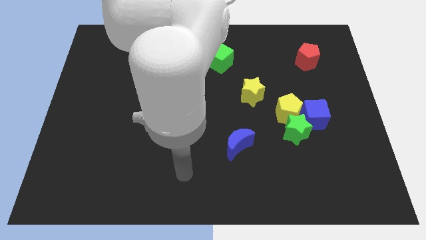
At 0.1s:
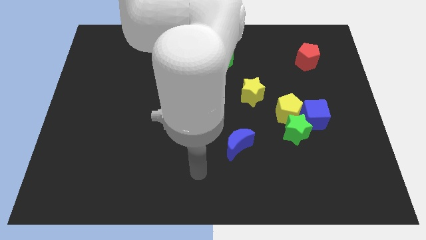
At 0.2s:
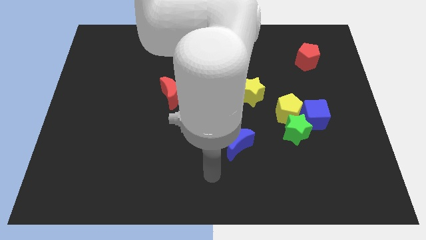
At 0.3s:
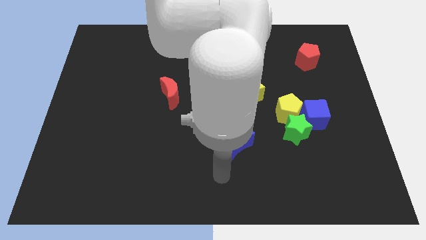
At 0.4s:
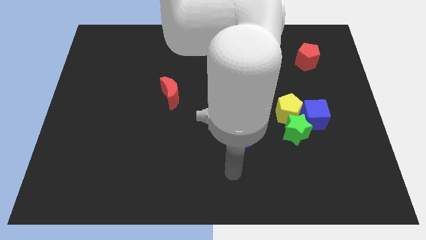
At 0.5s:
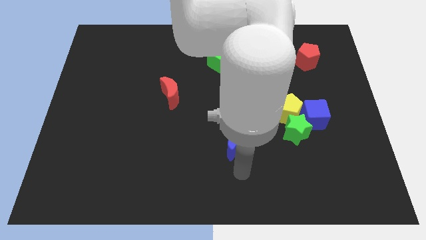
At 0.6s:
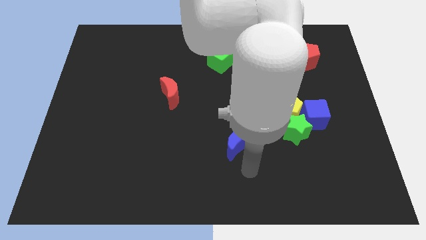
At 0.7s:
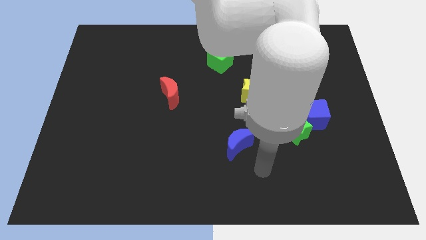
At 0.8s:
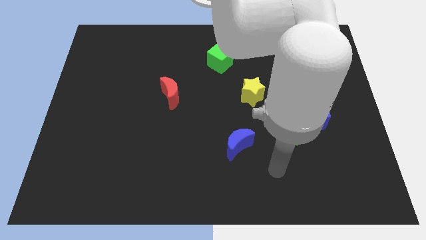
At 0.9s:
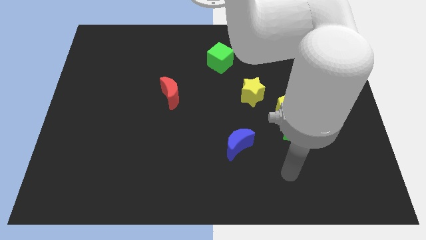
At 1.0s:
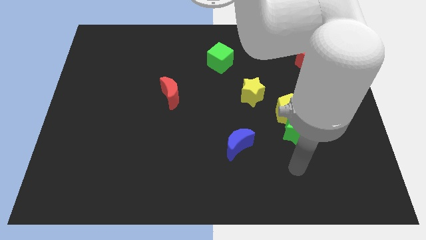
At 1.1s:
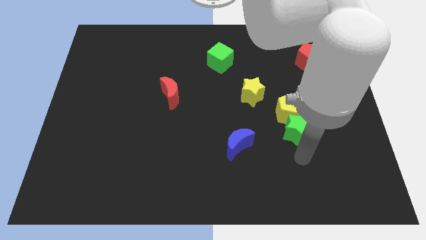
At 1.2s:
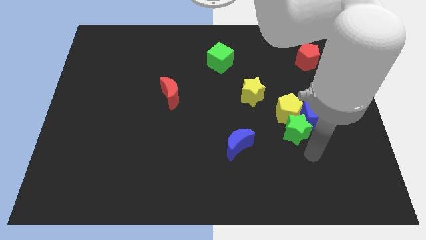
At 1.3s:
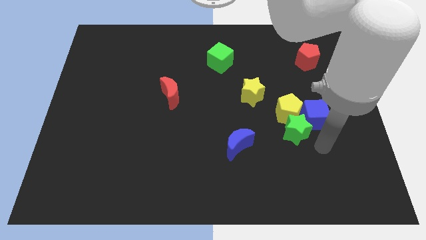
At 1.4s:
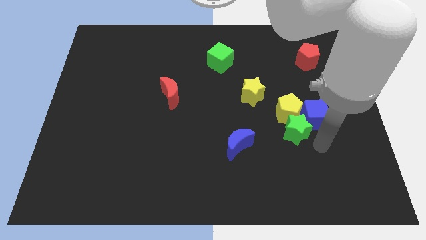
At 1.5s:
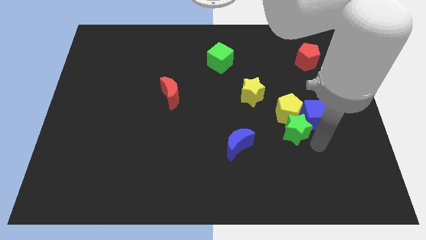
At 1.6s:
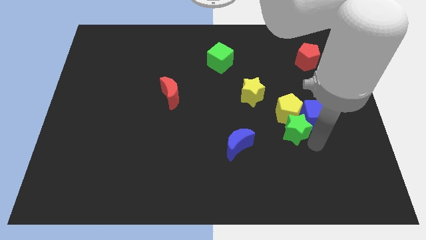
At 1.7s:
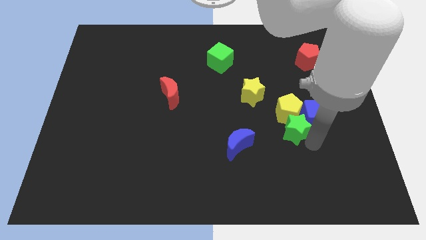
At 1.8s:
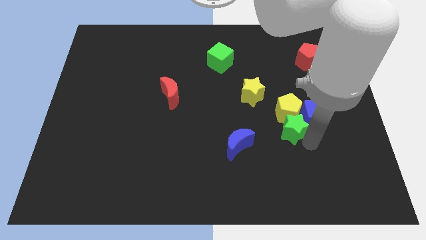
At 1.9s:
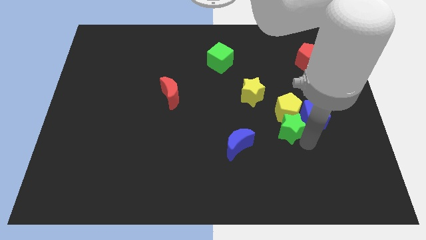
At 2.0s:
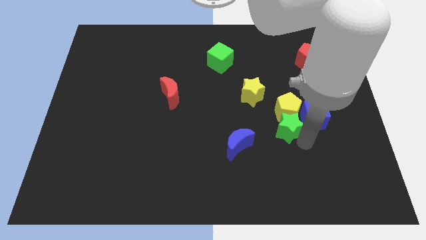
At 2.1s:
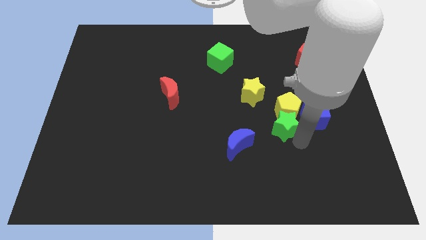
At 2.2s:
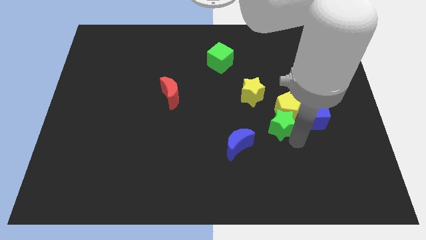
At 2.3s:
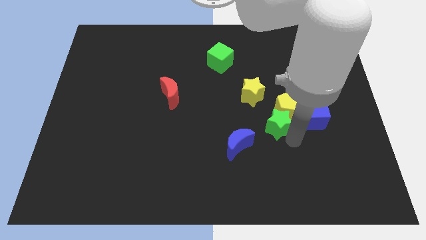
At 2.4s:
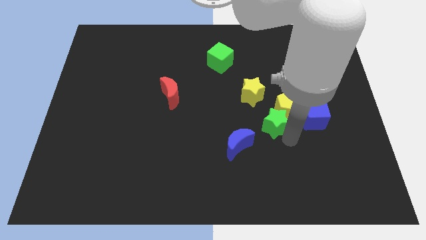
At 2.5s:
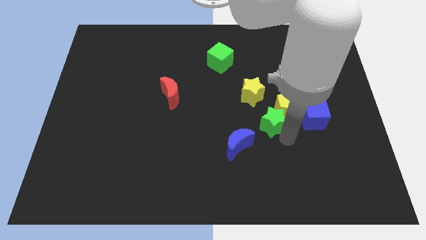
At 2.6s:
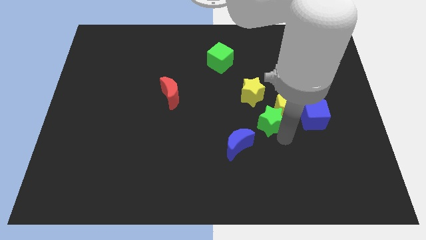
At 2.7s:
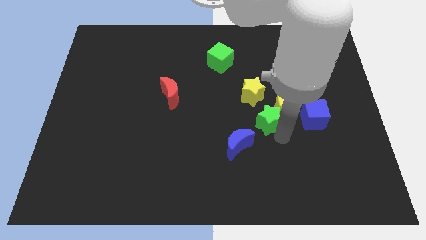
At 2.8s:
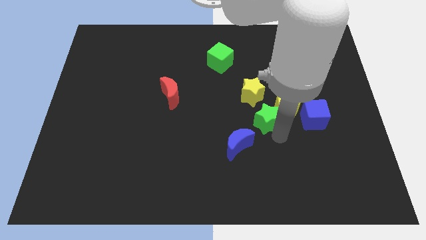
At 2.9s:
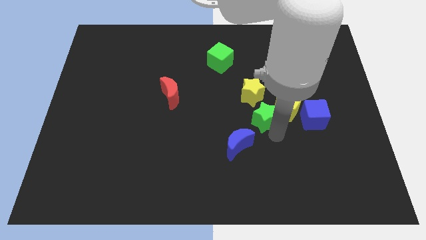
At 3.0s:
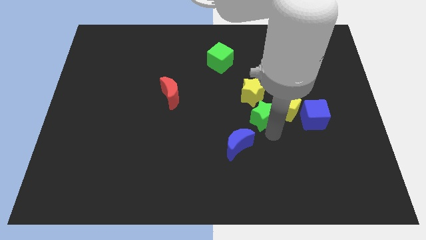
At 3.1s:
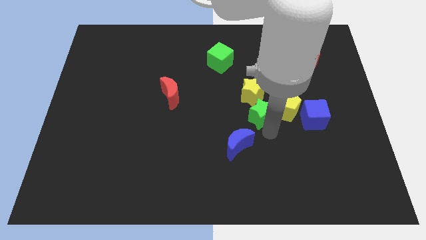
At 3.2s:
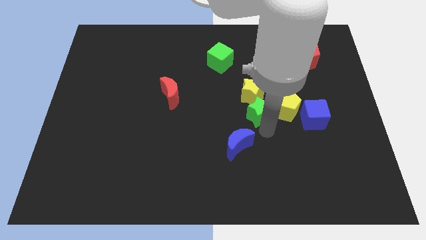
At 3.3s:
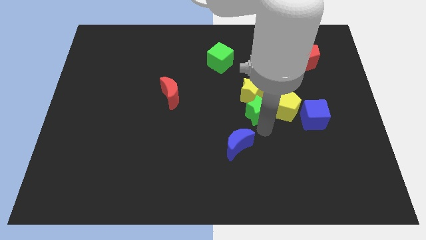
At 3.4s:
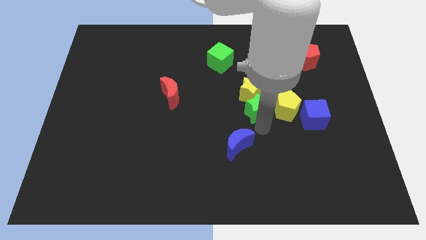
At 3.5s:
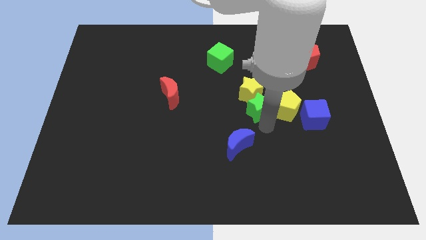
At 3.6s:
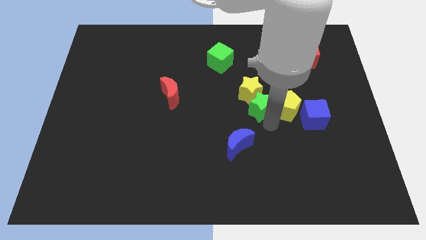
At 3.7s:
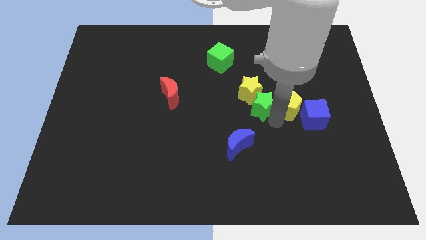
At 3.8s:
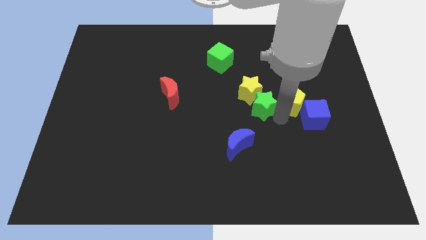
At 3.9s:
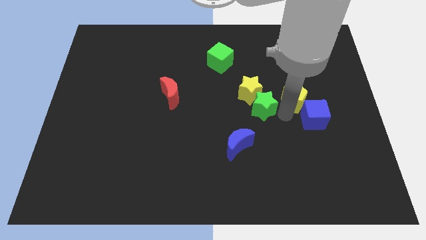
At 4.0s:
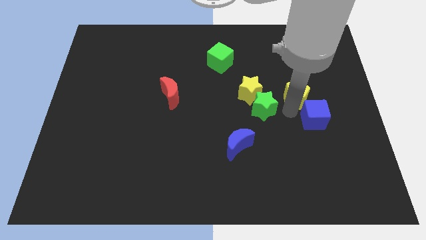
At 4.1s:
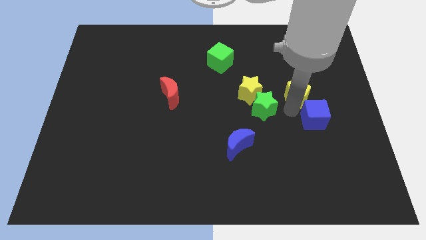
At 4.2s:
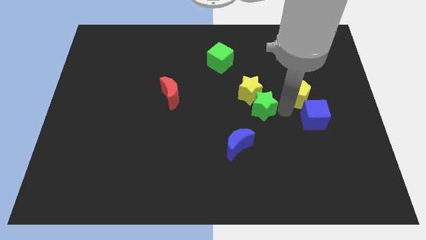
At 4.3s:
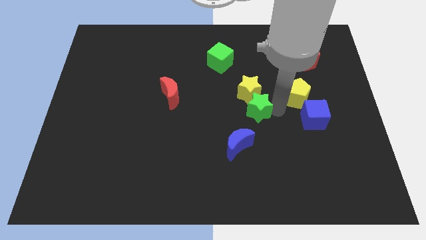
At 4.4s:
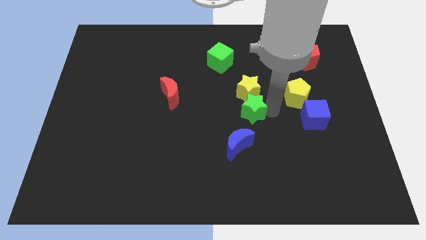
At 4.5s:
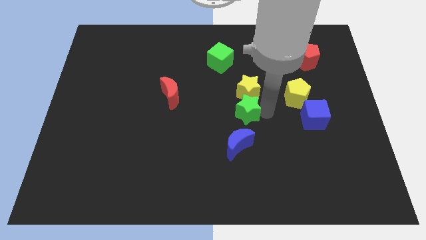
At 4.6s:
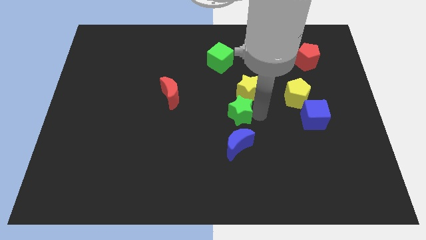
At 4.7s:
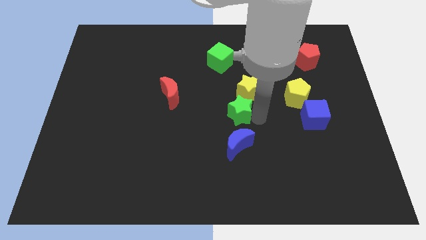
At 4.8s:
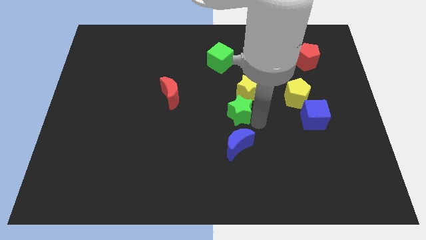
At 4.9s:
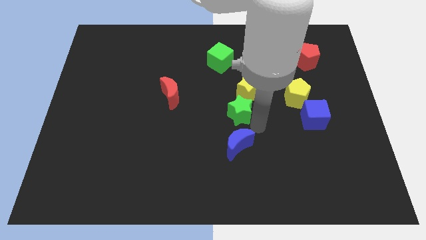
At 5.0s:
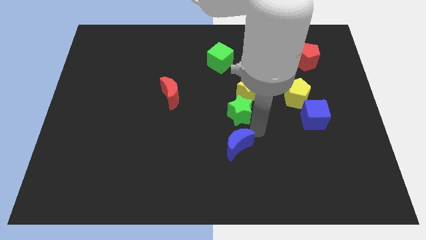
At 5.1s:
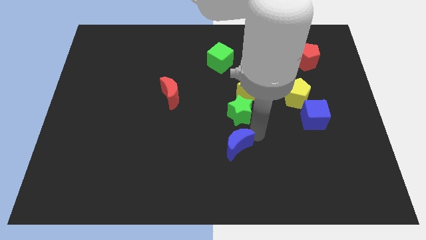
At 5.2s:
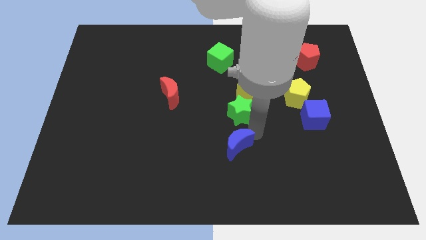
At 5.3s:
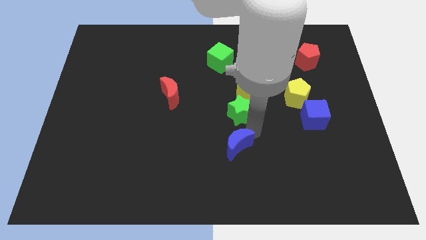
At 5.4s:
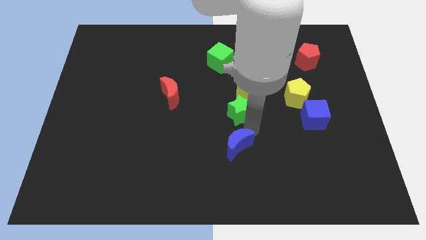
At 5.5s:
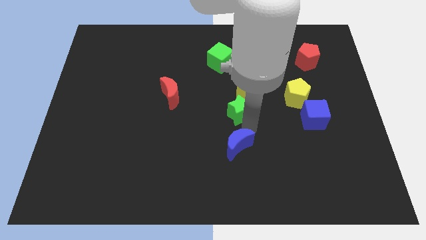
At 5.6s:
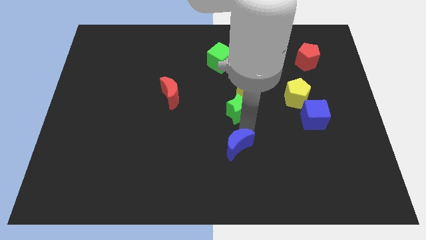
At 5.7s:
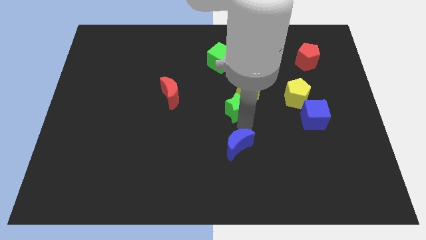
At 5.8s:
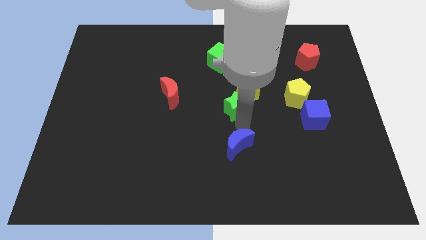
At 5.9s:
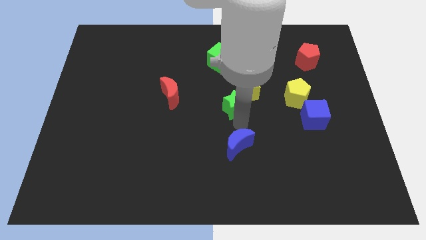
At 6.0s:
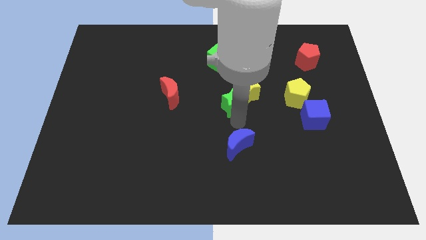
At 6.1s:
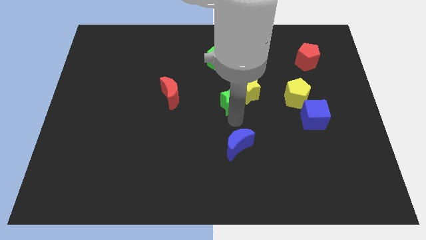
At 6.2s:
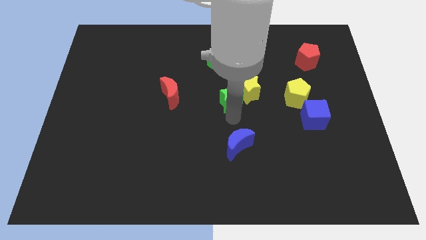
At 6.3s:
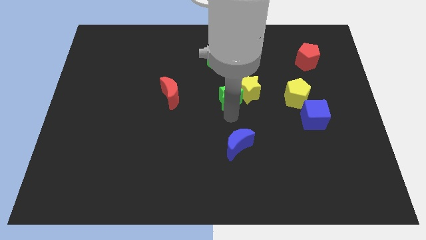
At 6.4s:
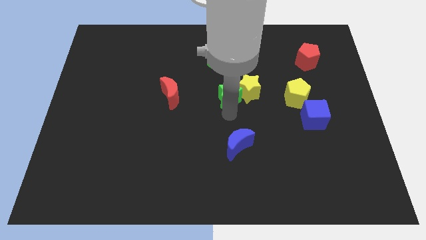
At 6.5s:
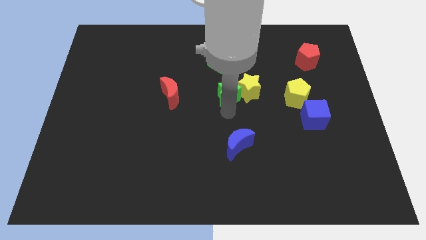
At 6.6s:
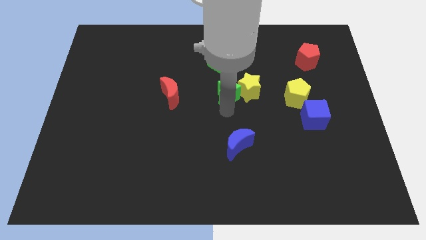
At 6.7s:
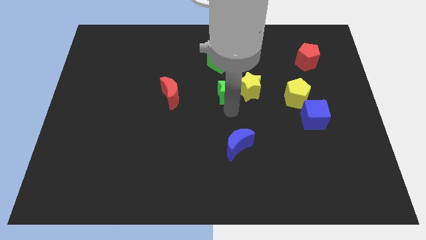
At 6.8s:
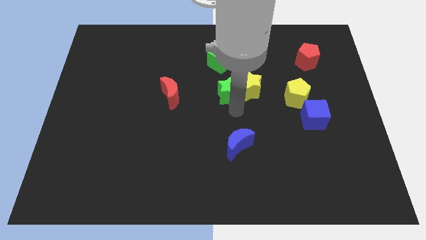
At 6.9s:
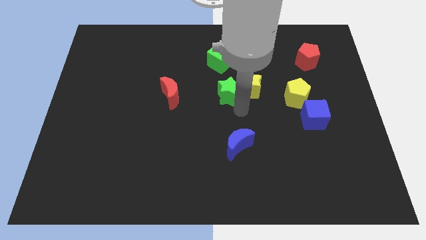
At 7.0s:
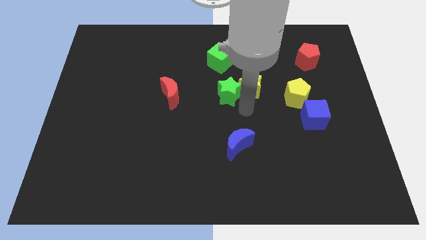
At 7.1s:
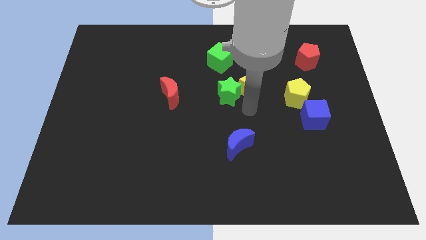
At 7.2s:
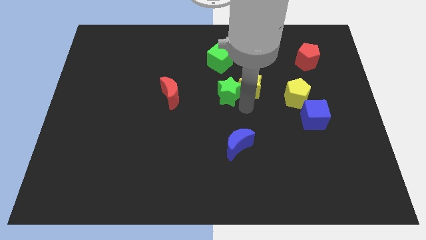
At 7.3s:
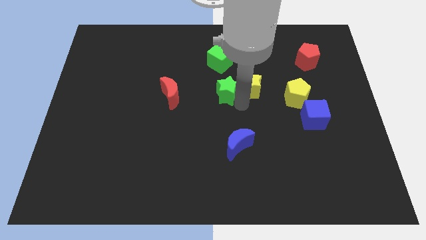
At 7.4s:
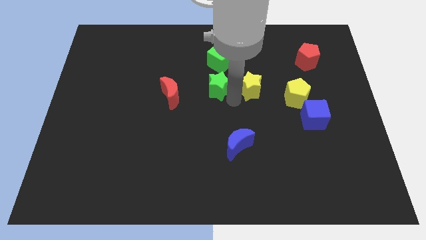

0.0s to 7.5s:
move the green star diagonally upwards and left
